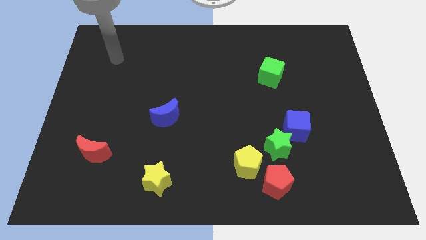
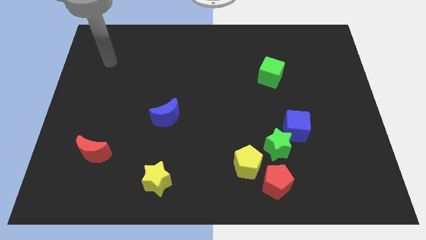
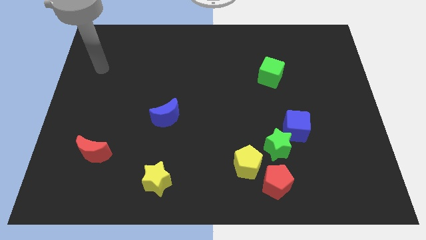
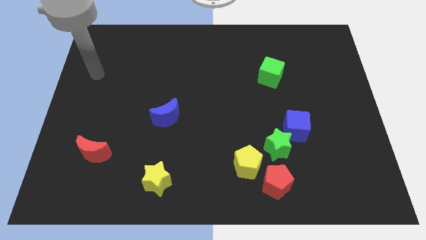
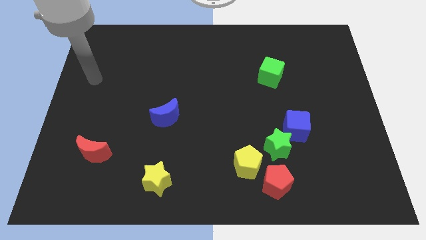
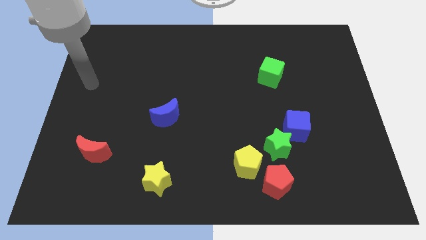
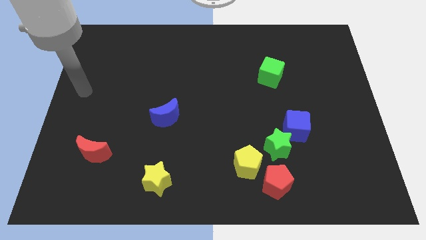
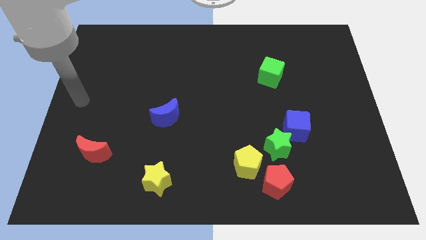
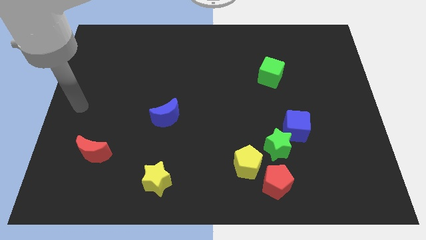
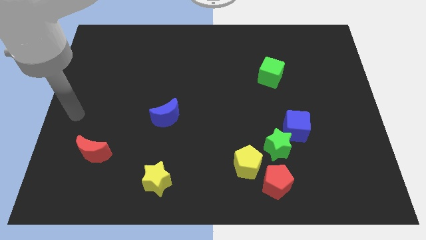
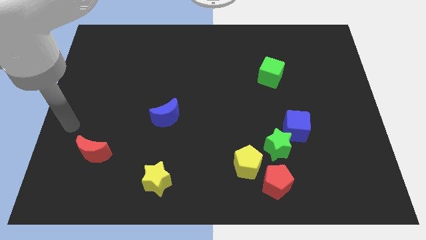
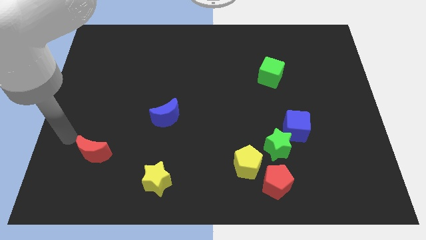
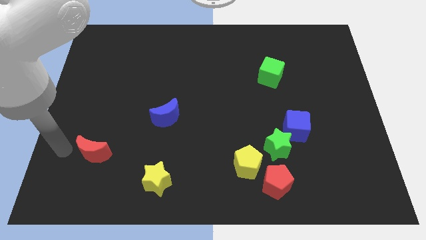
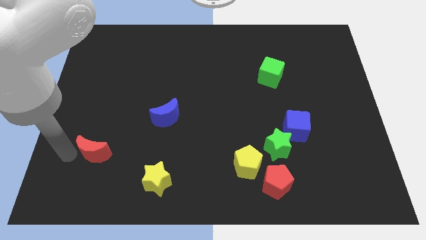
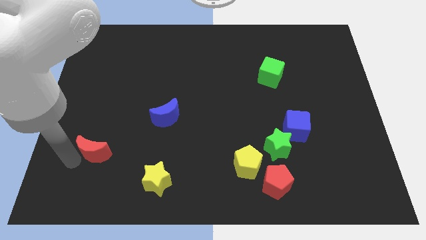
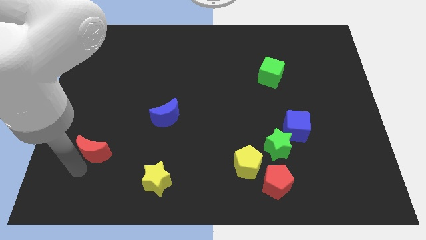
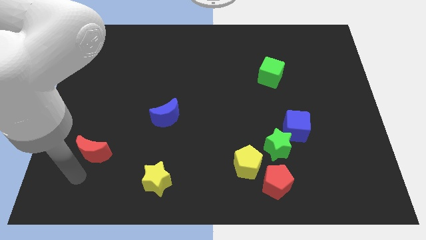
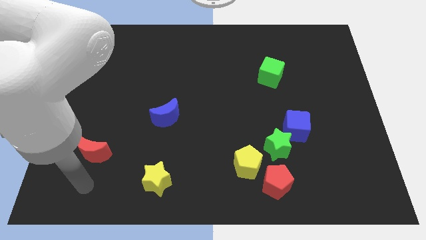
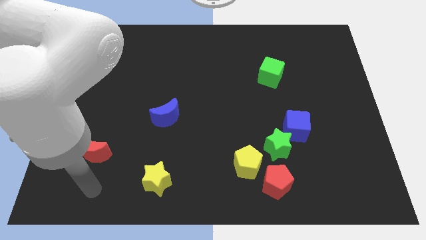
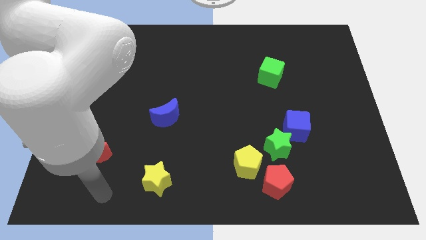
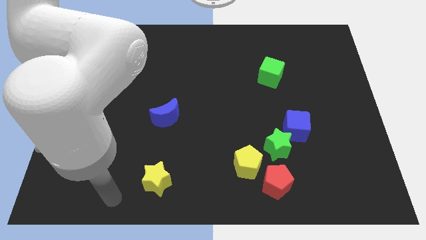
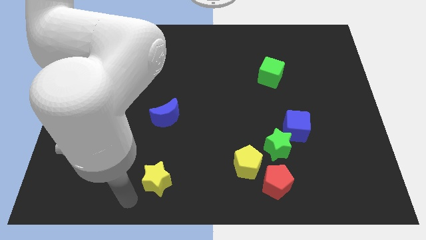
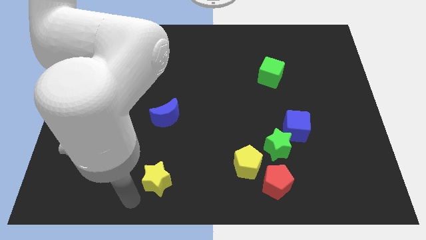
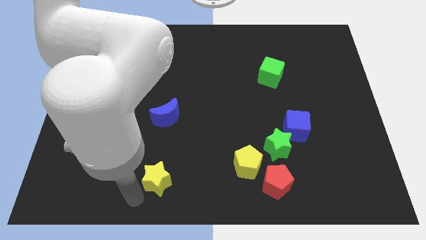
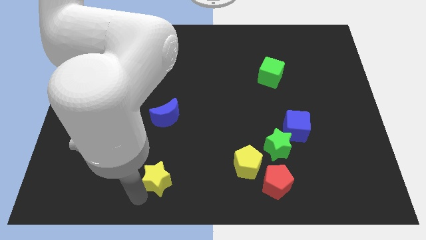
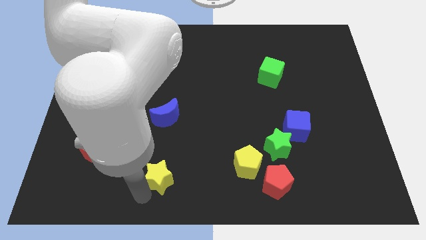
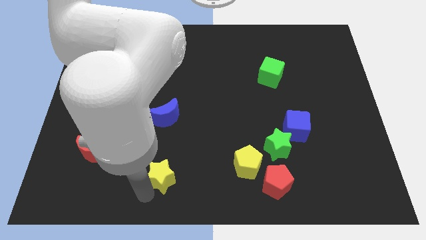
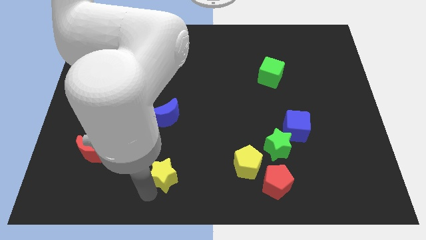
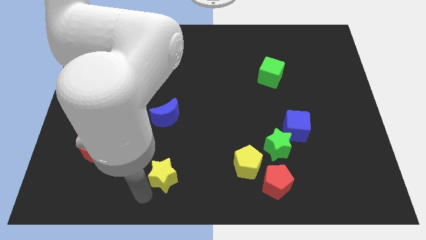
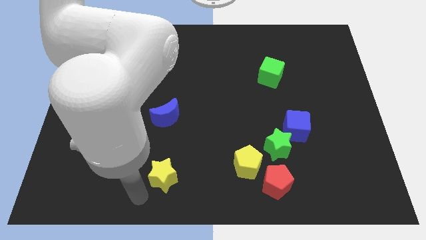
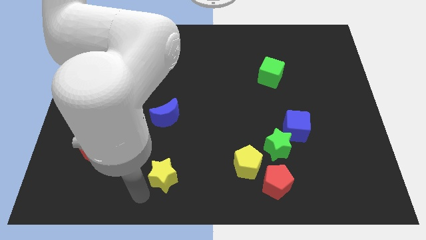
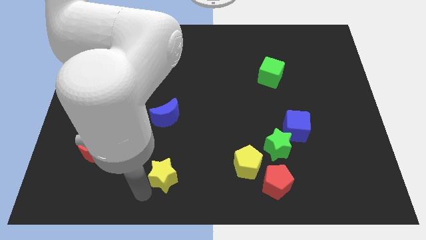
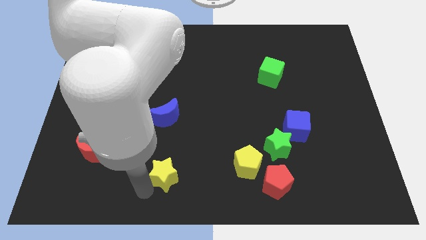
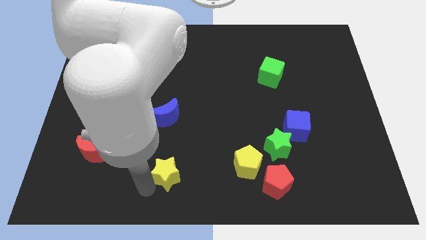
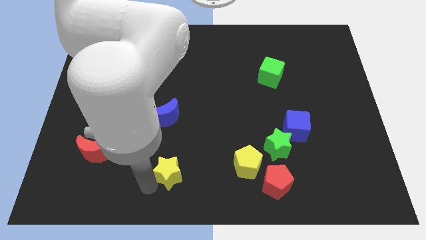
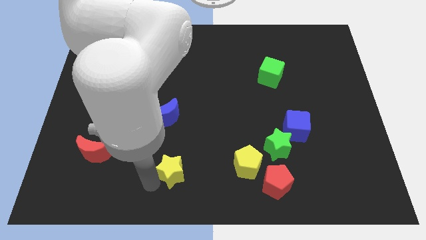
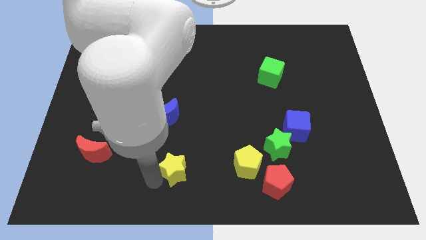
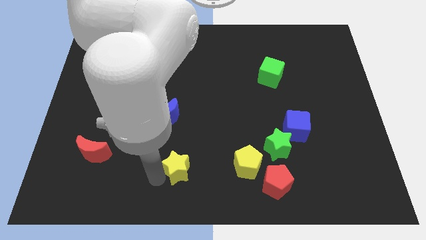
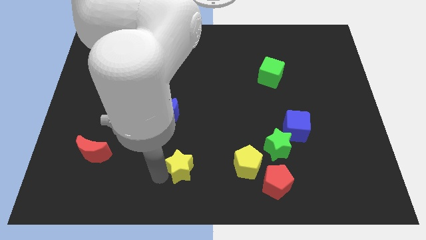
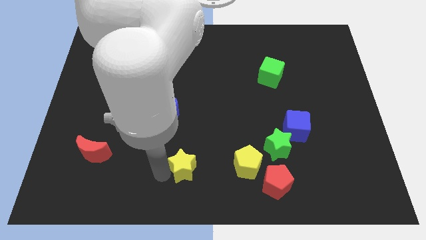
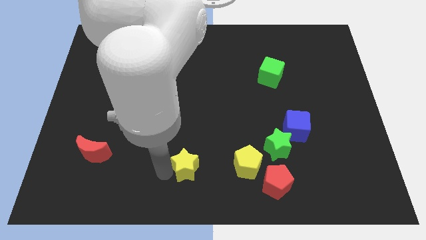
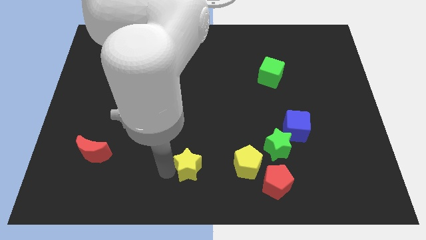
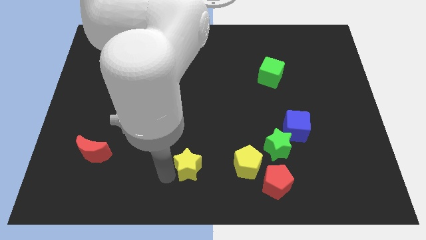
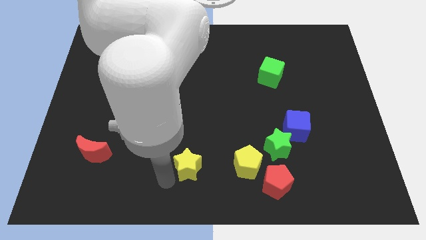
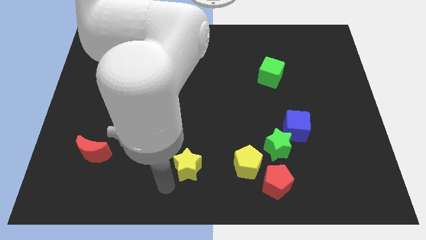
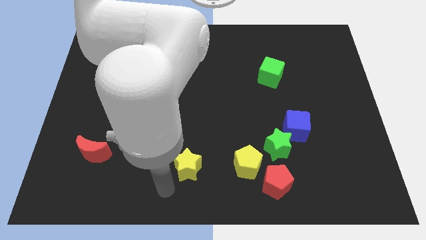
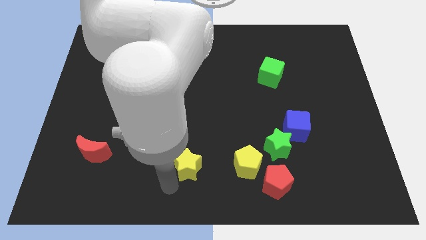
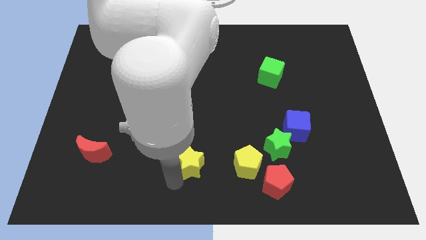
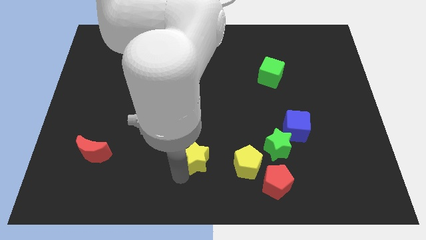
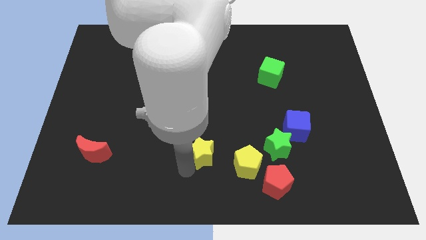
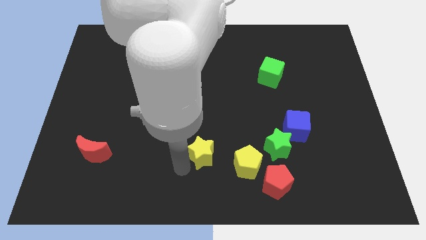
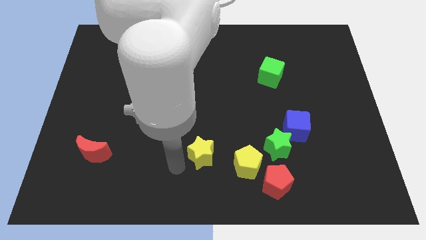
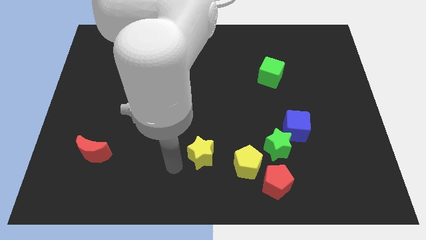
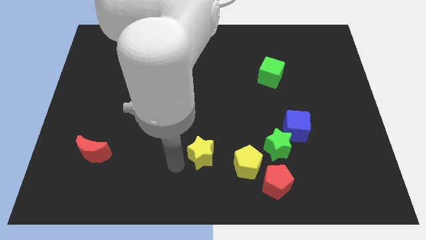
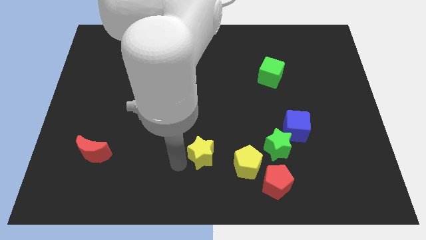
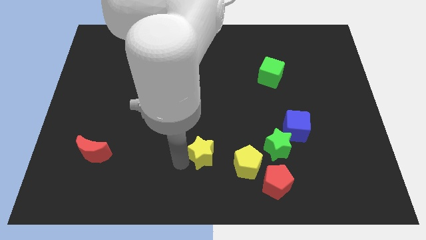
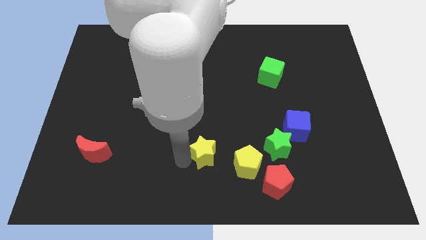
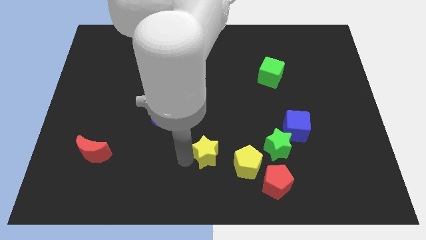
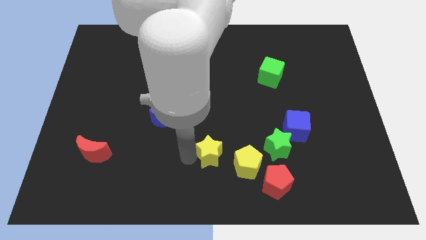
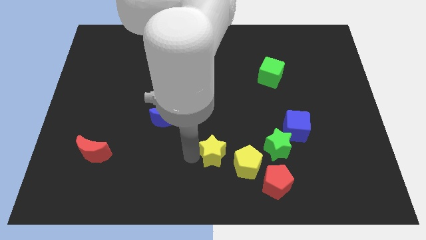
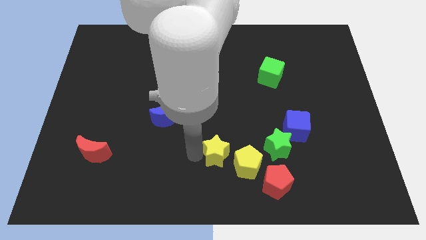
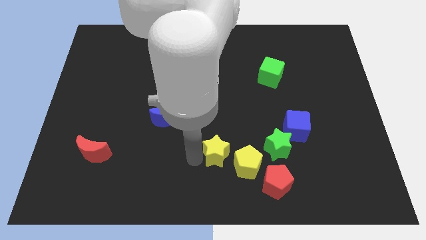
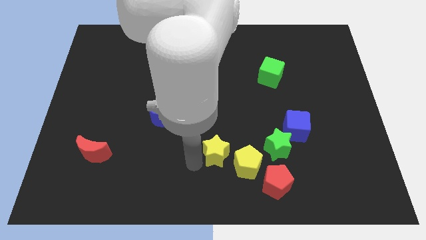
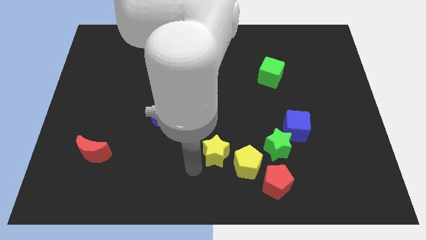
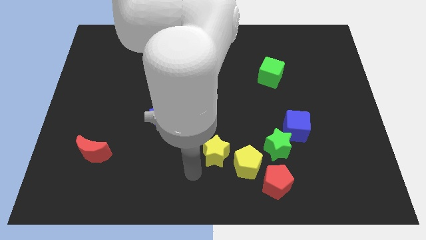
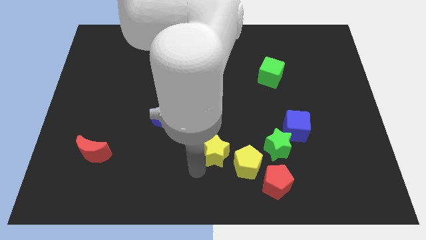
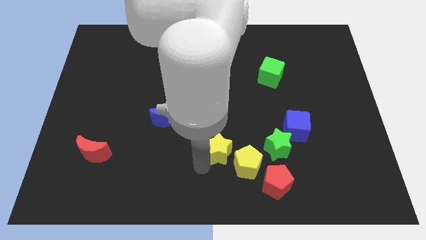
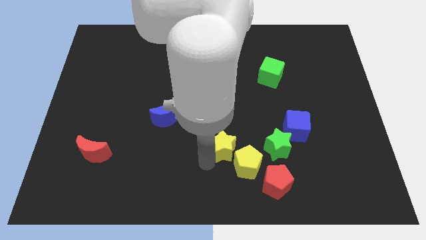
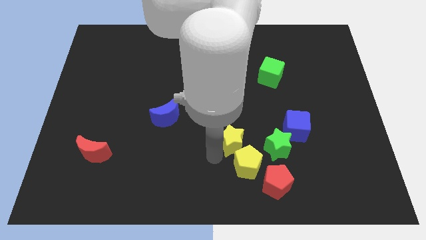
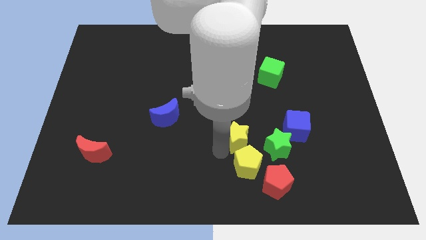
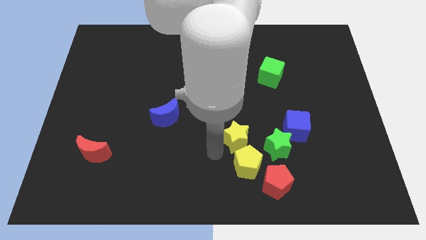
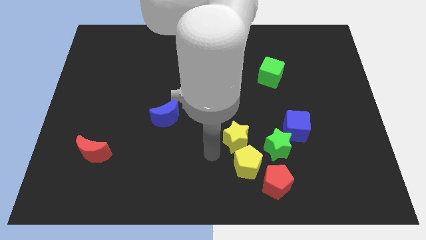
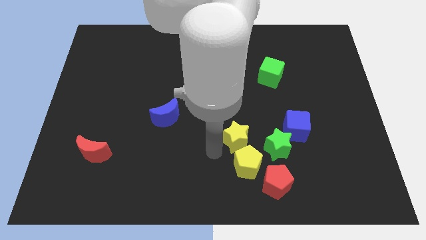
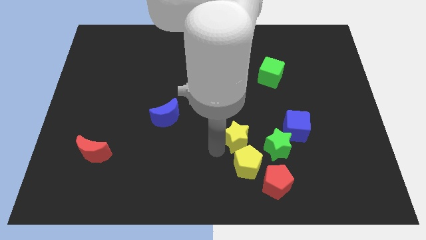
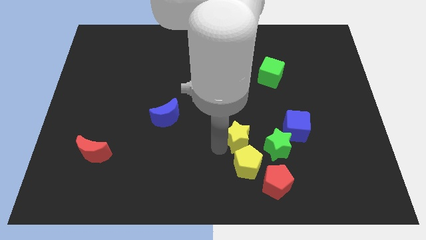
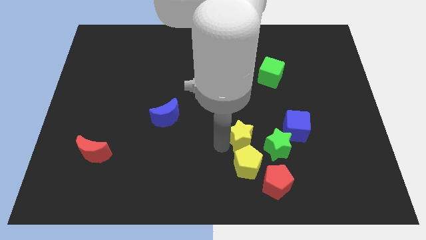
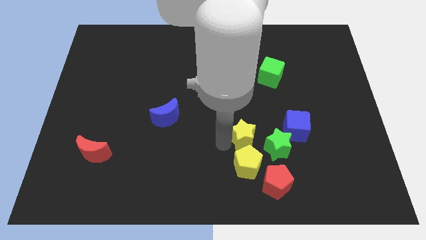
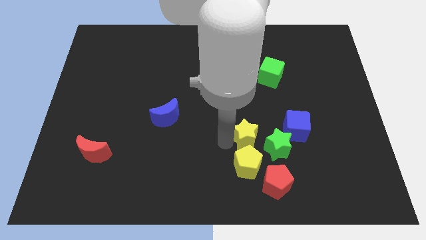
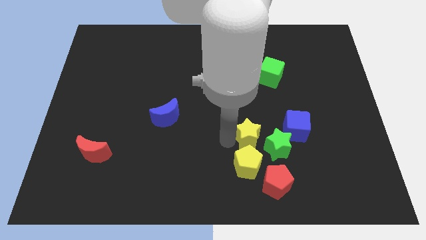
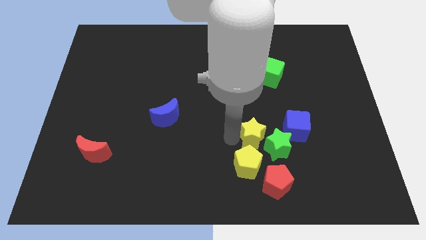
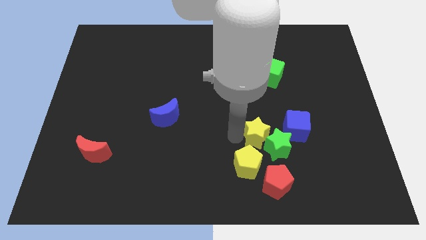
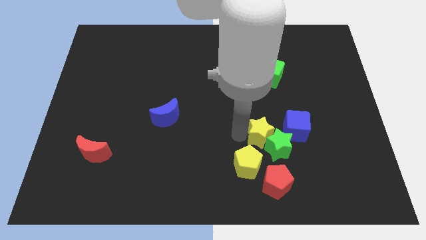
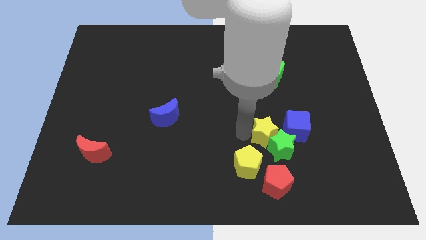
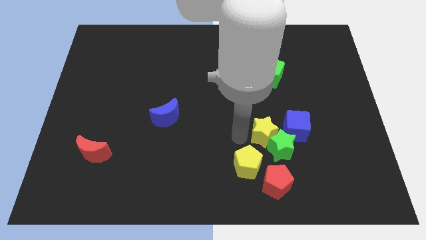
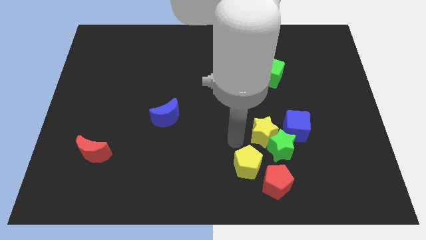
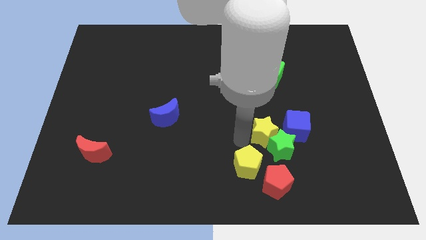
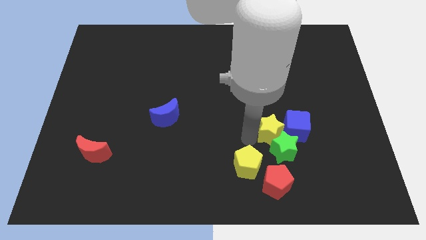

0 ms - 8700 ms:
slide the yellow star close to the blue cube
